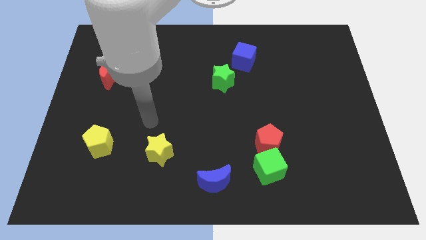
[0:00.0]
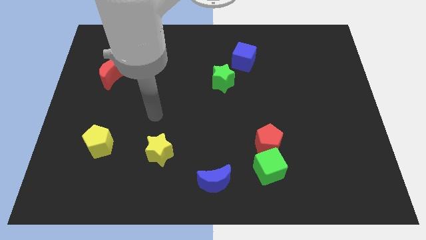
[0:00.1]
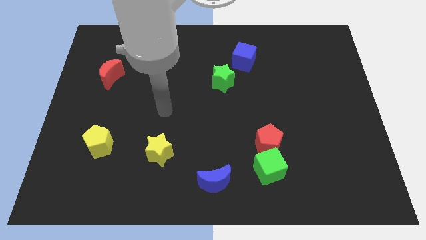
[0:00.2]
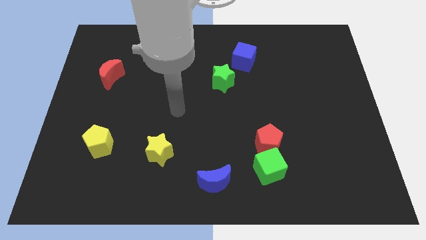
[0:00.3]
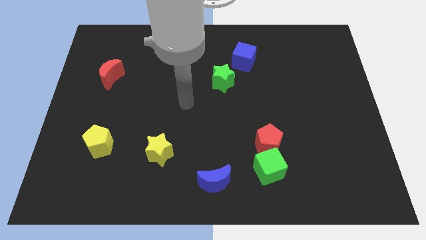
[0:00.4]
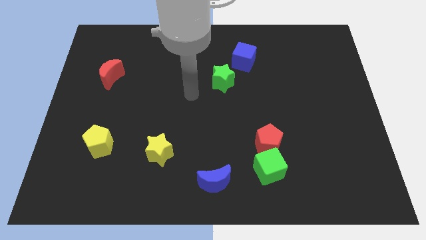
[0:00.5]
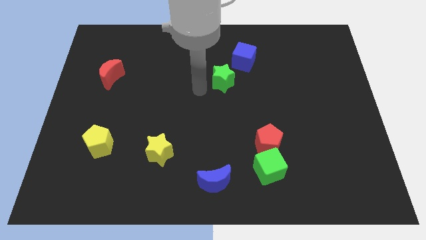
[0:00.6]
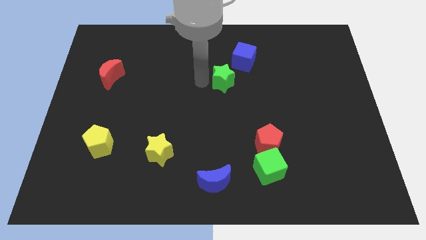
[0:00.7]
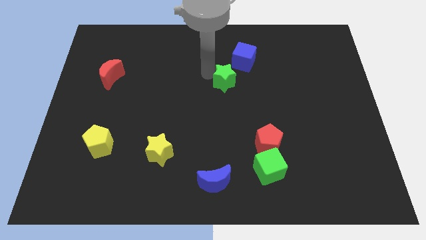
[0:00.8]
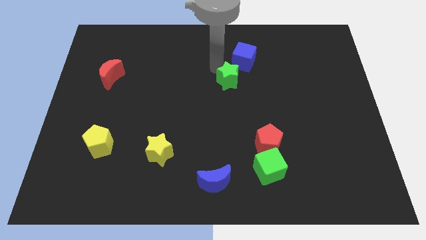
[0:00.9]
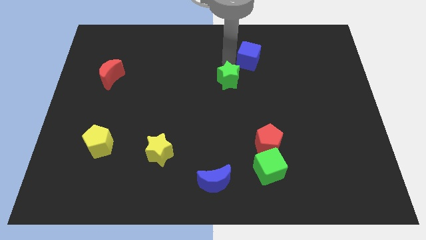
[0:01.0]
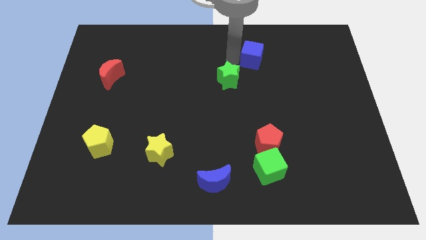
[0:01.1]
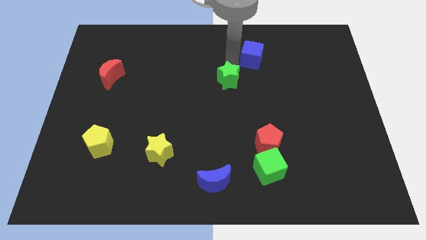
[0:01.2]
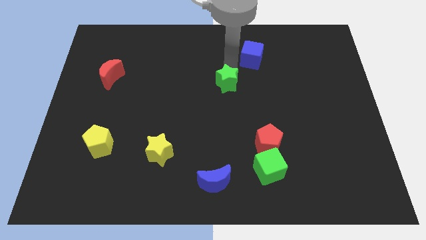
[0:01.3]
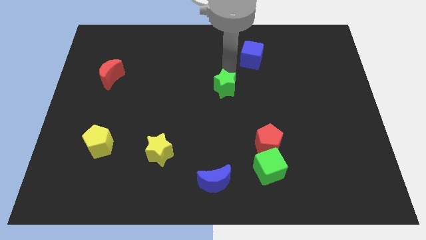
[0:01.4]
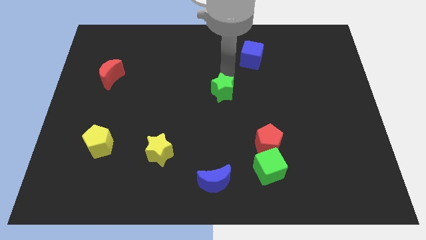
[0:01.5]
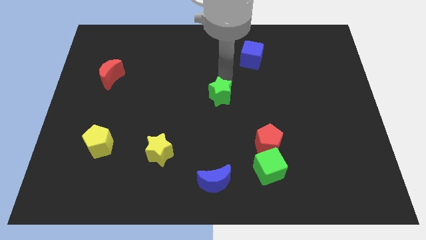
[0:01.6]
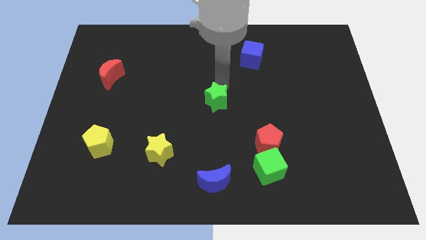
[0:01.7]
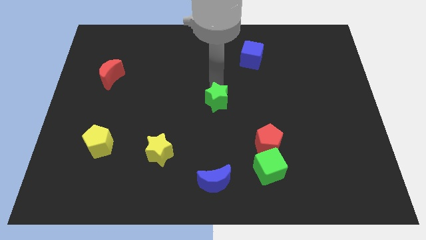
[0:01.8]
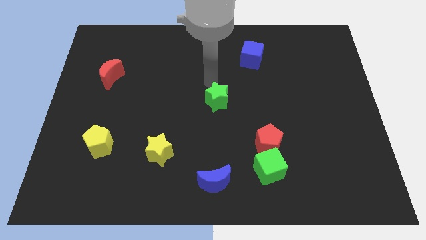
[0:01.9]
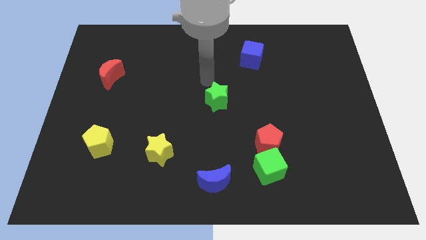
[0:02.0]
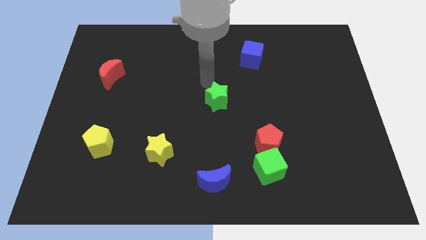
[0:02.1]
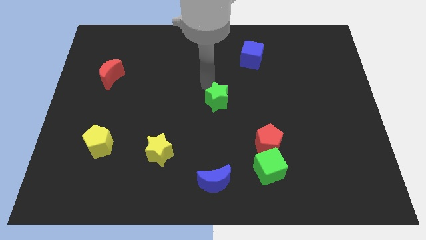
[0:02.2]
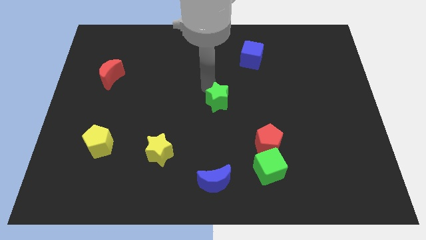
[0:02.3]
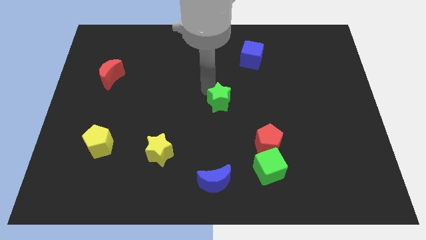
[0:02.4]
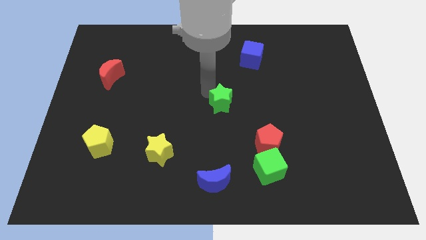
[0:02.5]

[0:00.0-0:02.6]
push the green star slightly down

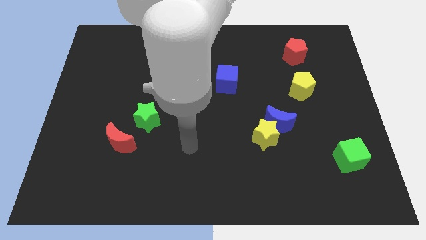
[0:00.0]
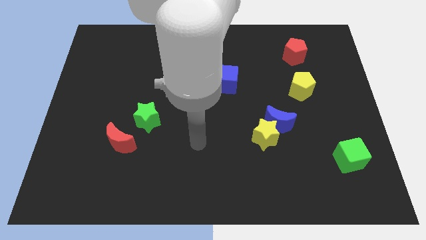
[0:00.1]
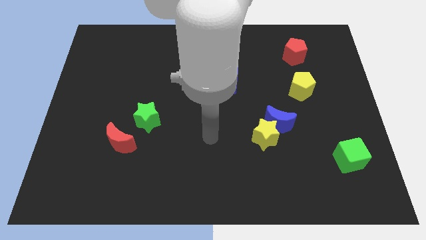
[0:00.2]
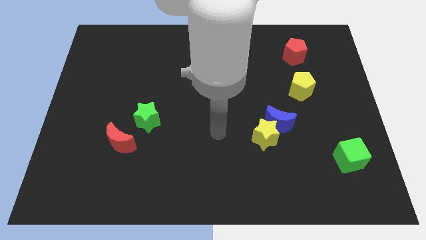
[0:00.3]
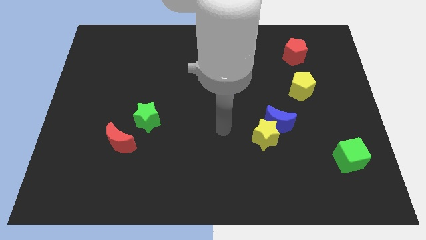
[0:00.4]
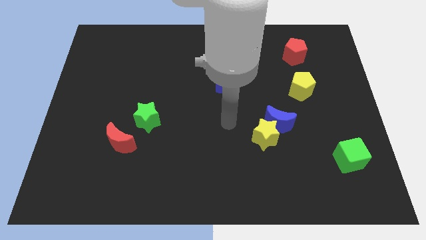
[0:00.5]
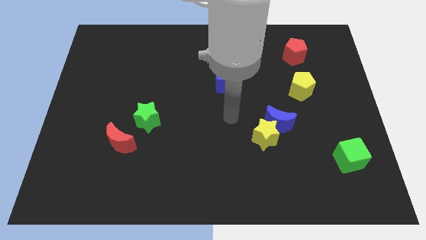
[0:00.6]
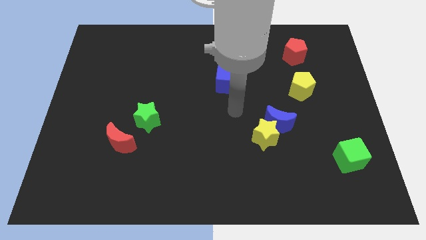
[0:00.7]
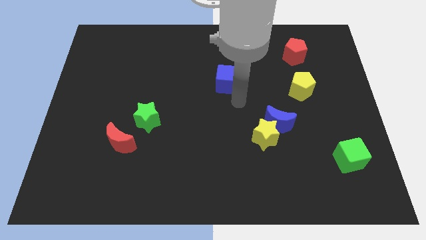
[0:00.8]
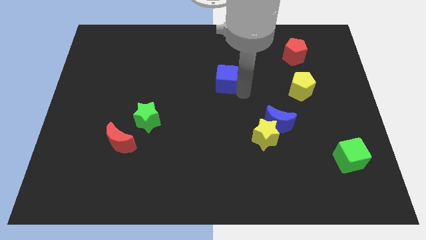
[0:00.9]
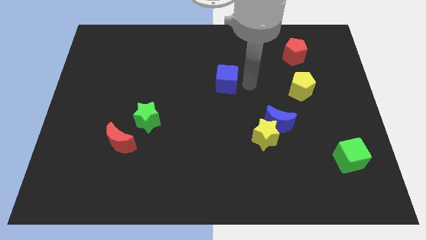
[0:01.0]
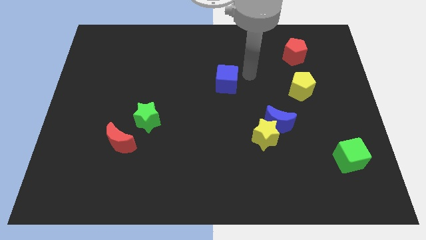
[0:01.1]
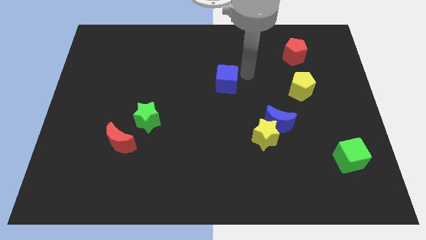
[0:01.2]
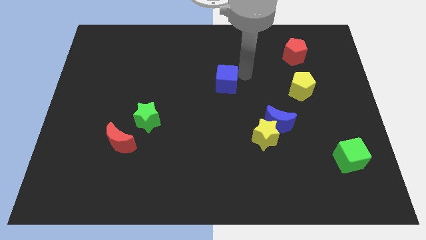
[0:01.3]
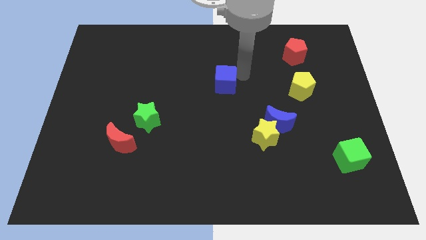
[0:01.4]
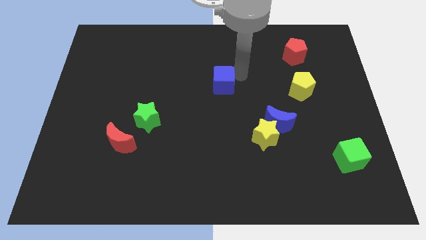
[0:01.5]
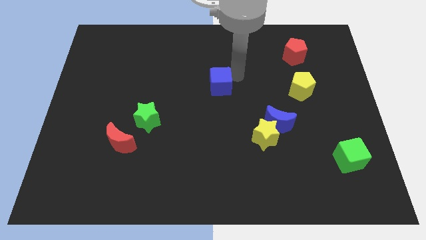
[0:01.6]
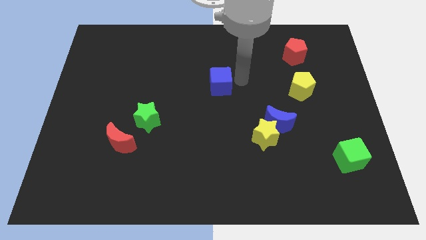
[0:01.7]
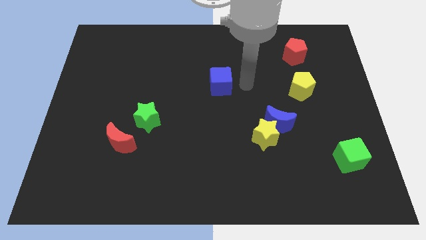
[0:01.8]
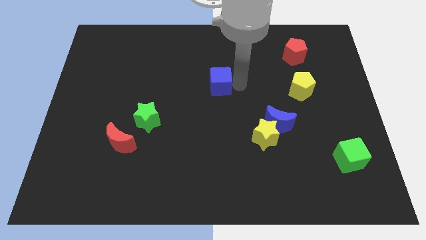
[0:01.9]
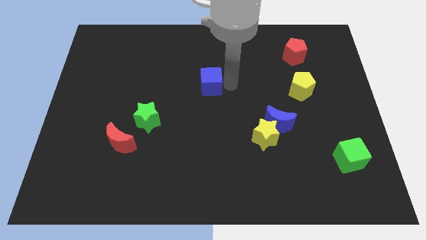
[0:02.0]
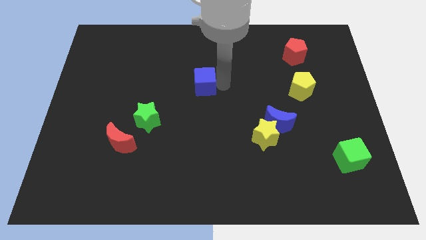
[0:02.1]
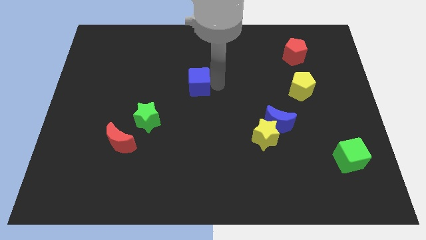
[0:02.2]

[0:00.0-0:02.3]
move the blue cube to the left a little

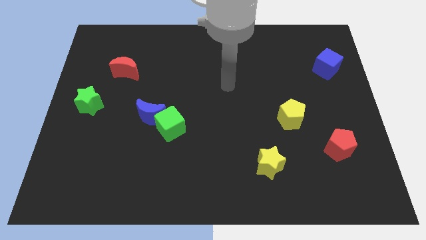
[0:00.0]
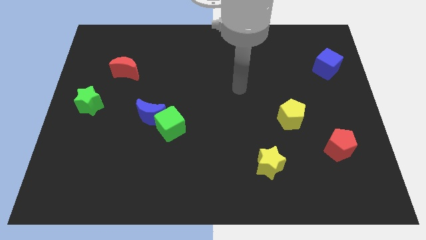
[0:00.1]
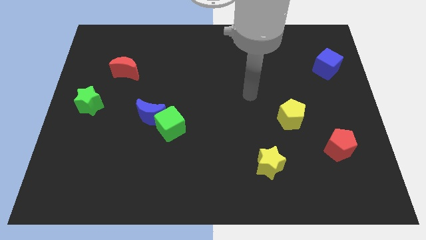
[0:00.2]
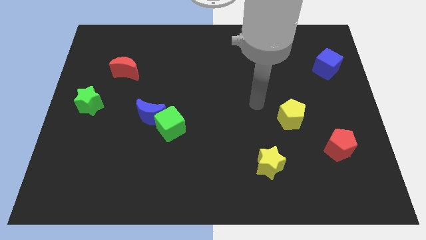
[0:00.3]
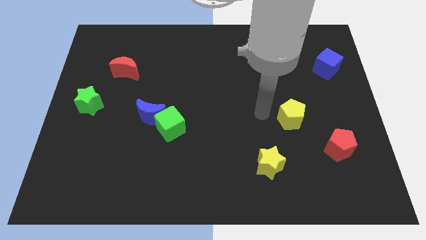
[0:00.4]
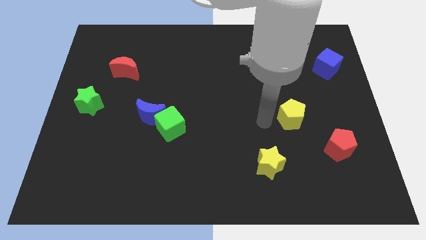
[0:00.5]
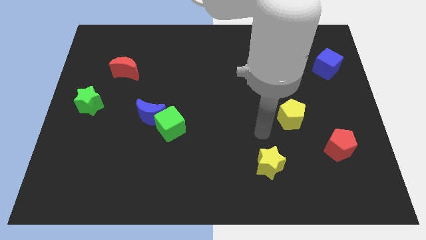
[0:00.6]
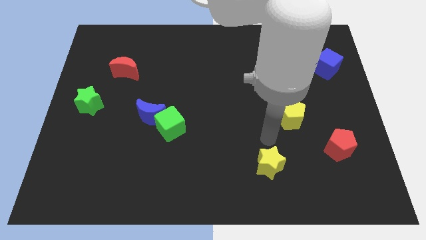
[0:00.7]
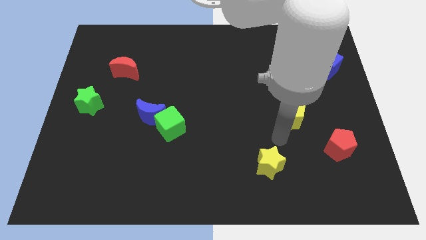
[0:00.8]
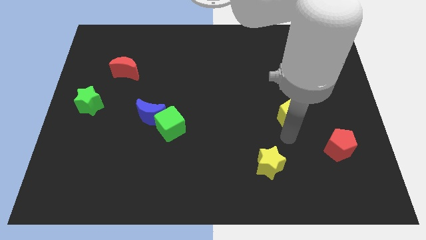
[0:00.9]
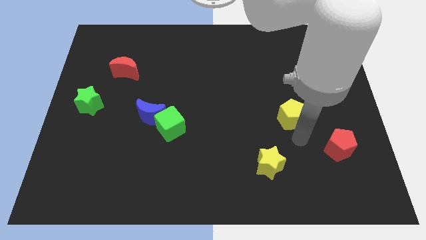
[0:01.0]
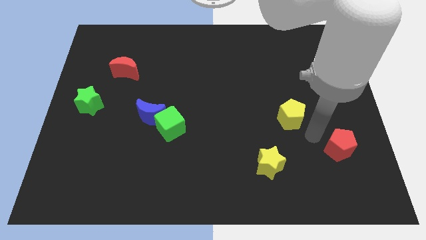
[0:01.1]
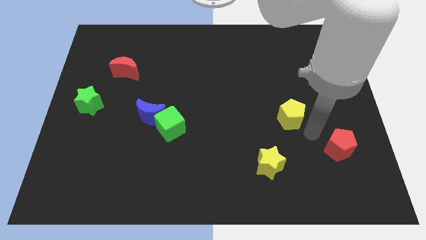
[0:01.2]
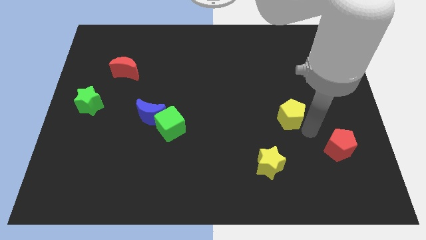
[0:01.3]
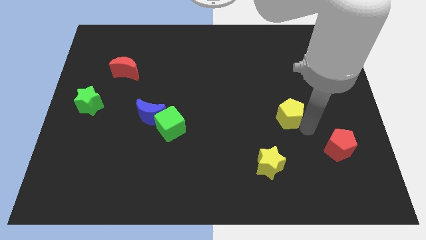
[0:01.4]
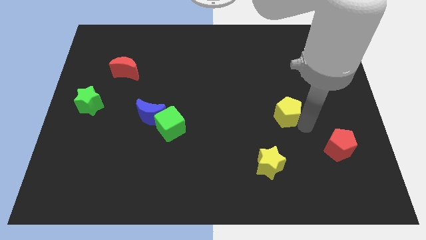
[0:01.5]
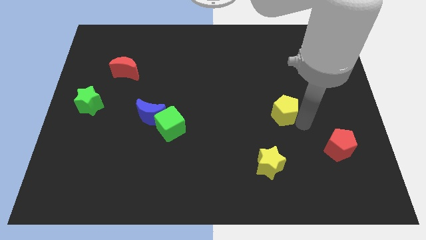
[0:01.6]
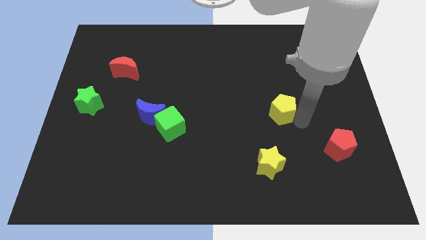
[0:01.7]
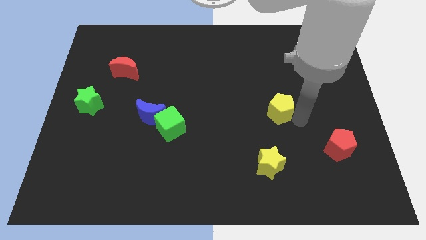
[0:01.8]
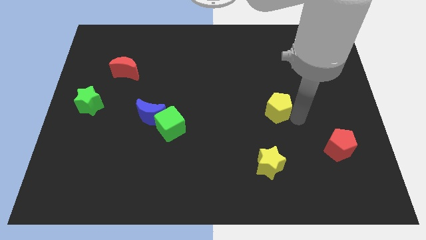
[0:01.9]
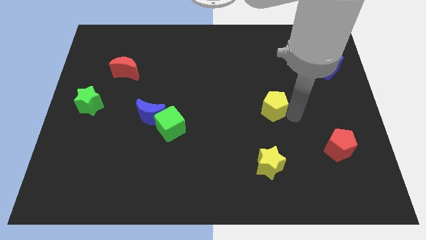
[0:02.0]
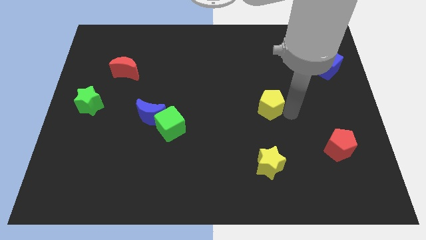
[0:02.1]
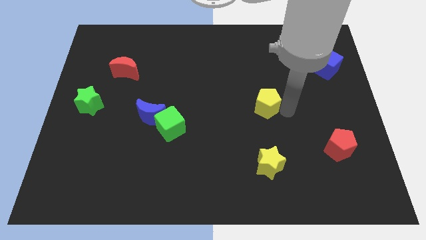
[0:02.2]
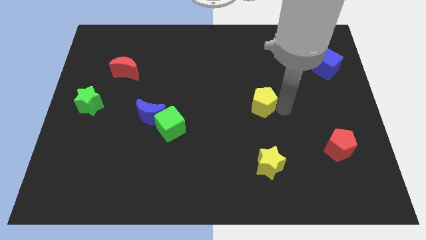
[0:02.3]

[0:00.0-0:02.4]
push the yellow pentagon up and then left slightly

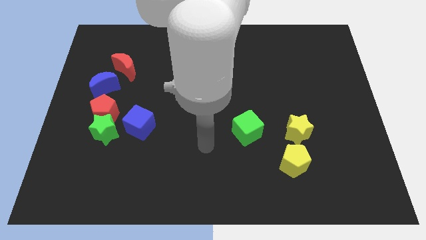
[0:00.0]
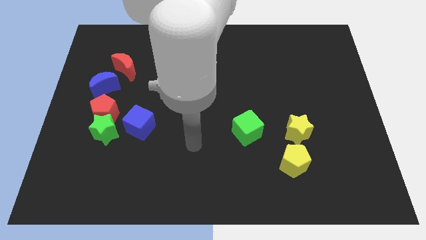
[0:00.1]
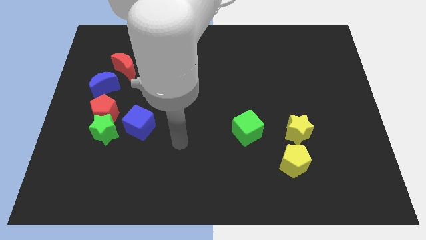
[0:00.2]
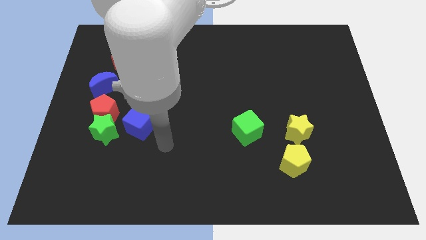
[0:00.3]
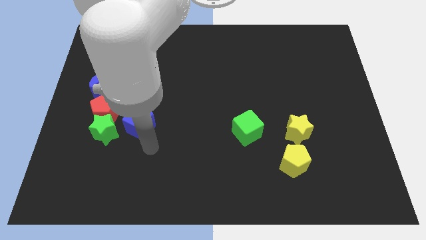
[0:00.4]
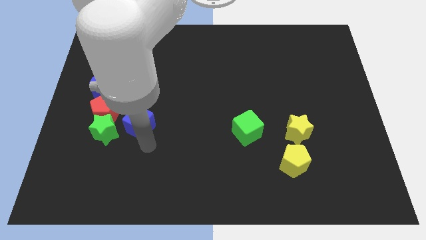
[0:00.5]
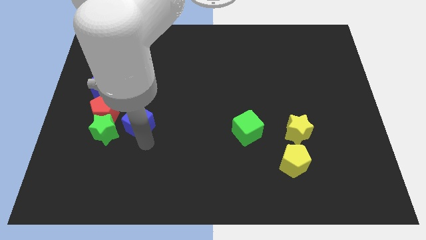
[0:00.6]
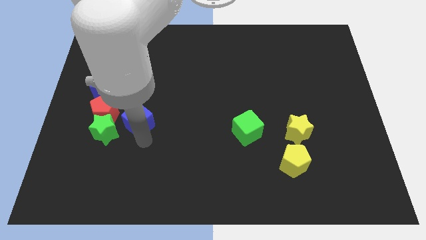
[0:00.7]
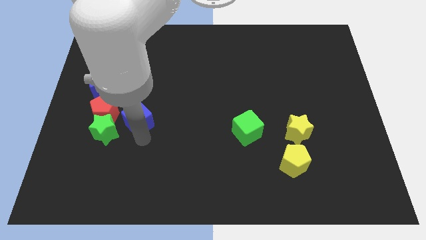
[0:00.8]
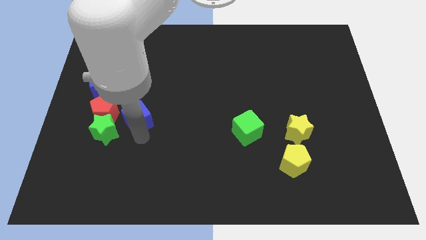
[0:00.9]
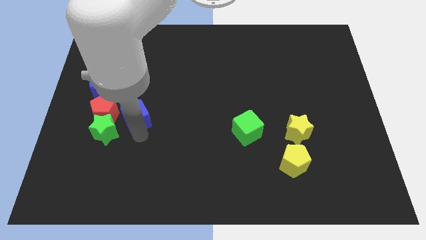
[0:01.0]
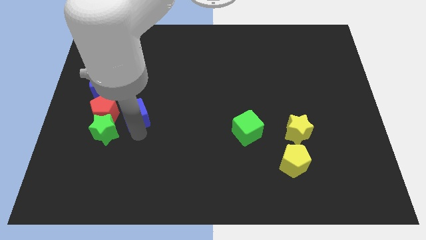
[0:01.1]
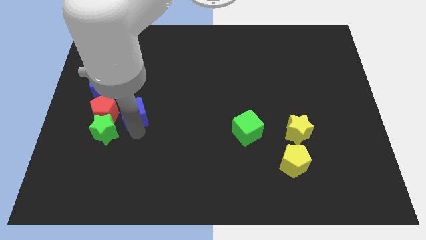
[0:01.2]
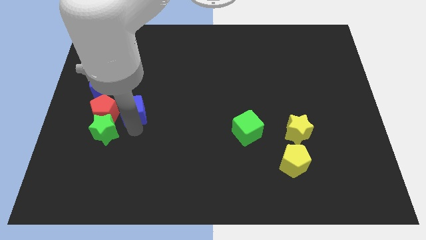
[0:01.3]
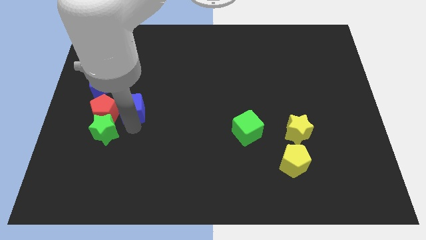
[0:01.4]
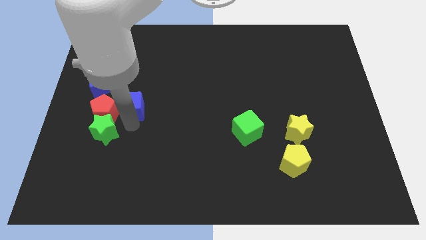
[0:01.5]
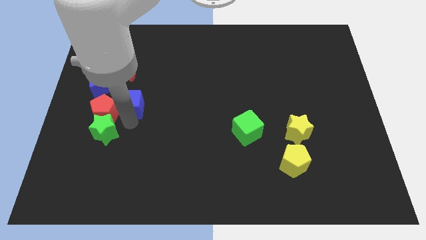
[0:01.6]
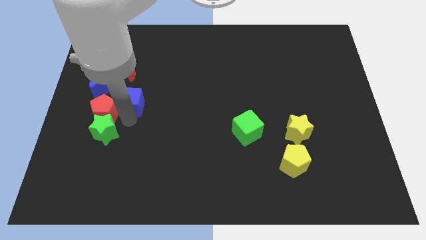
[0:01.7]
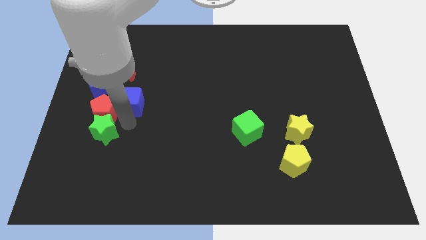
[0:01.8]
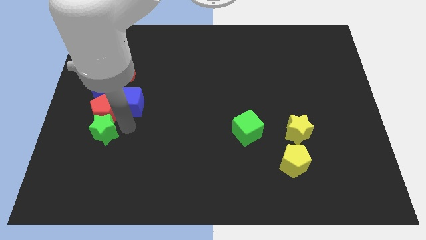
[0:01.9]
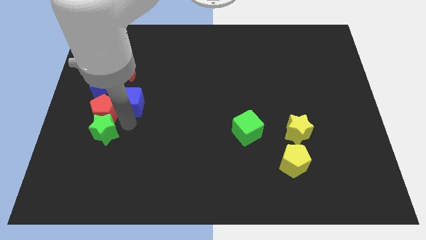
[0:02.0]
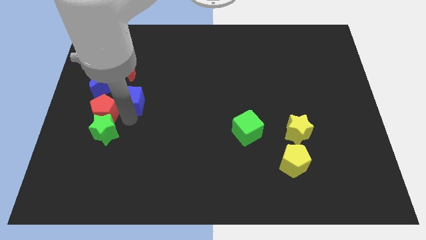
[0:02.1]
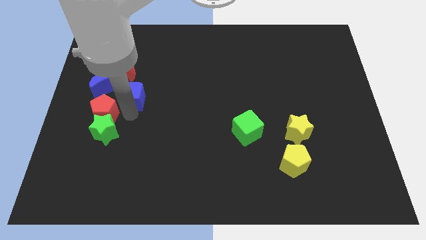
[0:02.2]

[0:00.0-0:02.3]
push the blue cube upwards somewhat
